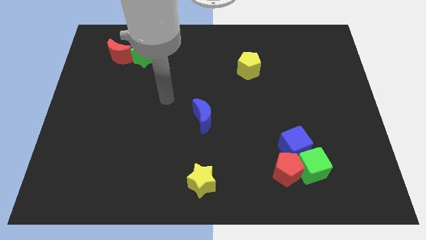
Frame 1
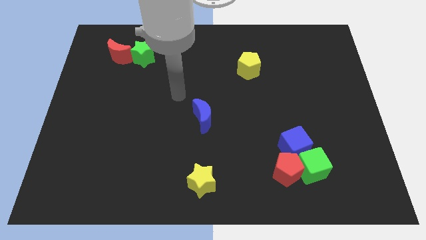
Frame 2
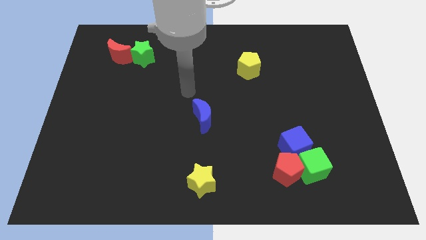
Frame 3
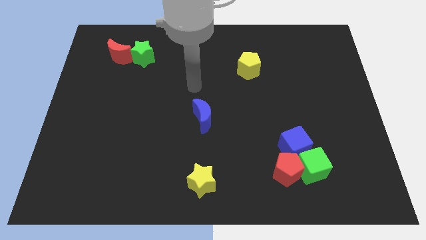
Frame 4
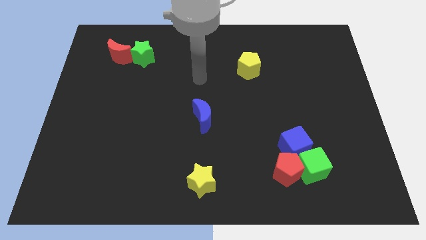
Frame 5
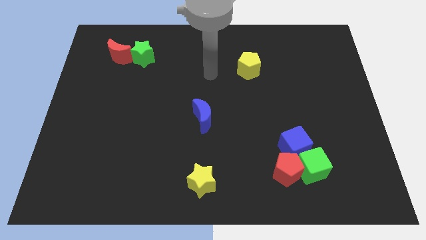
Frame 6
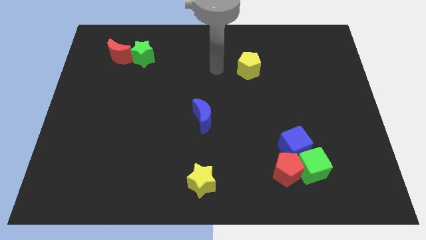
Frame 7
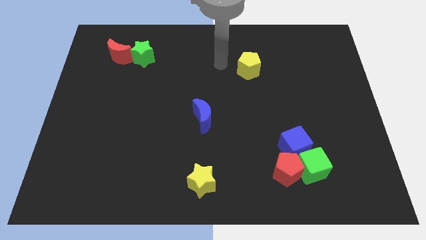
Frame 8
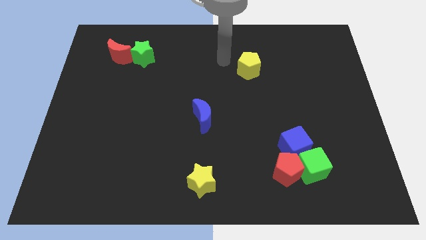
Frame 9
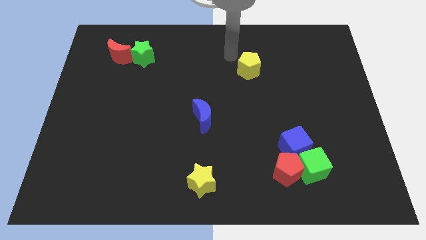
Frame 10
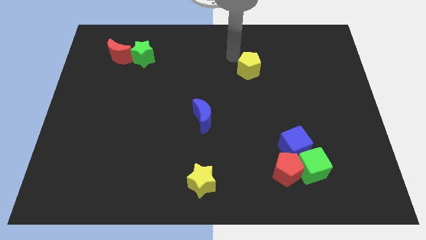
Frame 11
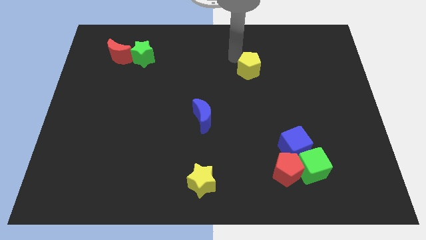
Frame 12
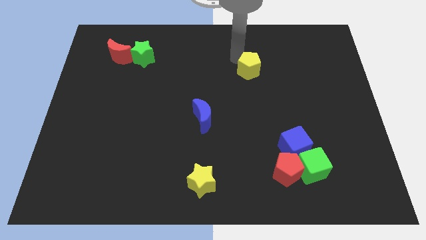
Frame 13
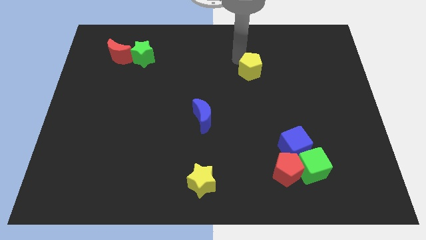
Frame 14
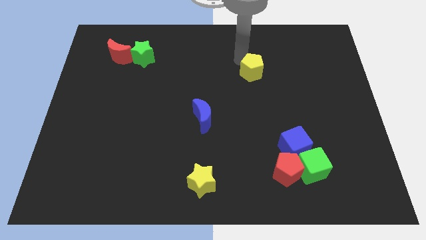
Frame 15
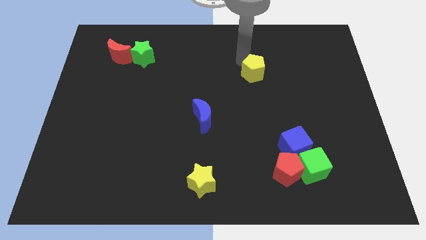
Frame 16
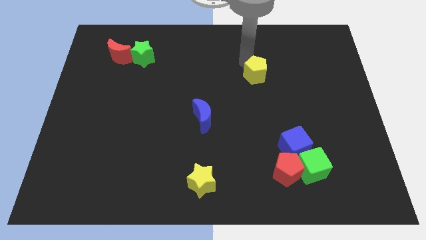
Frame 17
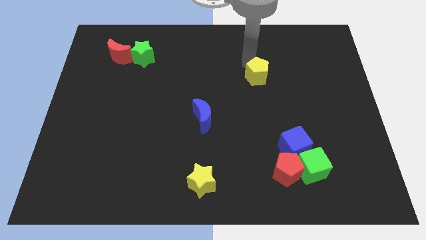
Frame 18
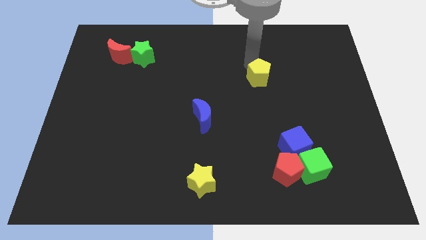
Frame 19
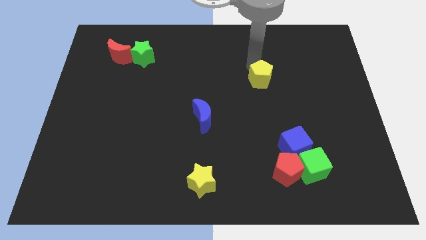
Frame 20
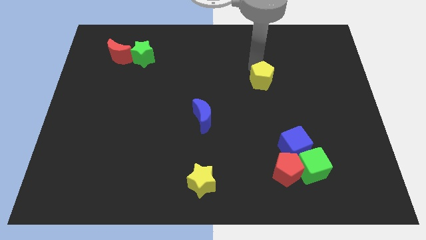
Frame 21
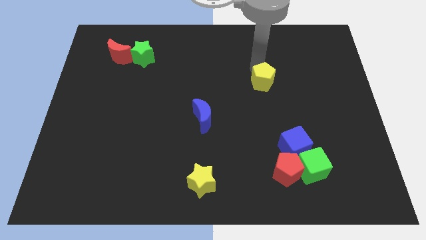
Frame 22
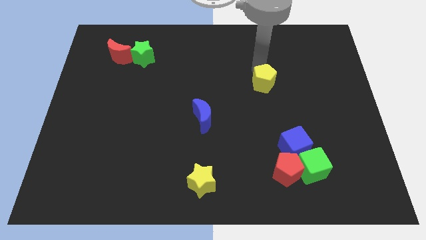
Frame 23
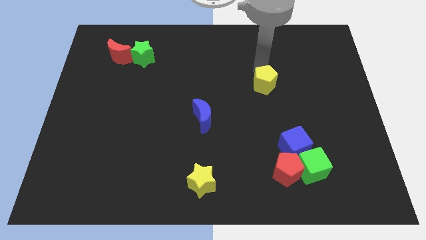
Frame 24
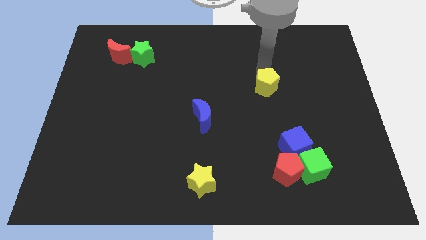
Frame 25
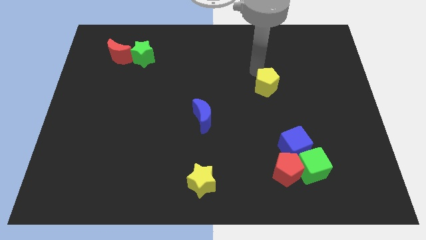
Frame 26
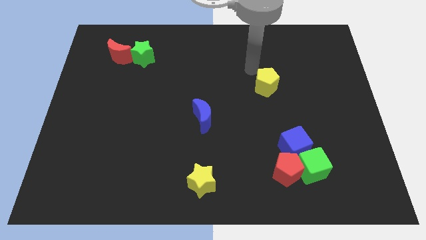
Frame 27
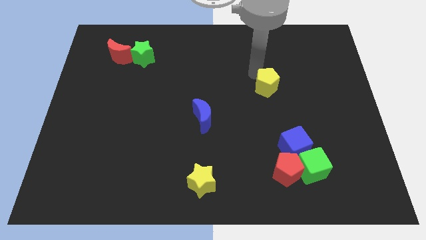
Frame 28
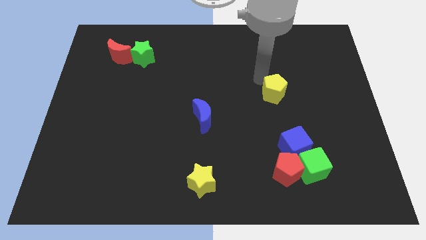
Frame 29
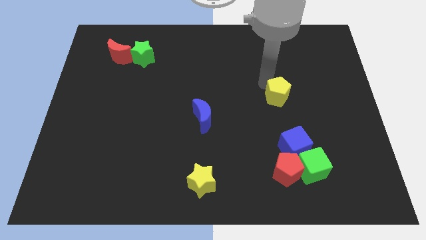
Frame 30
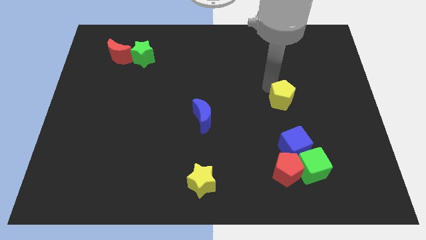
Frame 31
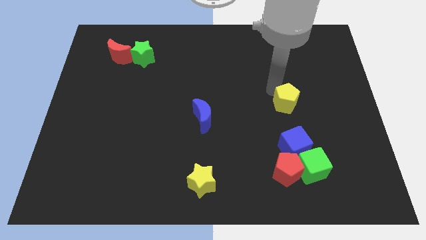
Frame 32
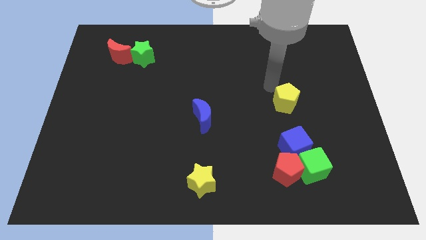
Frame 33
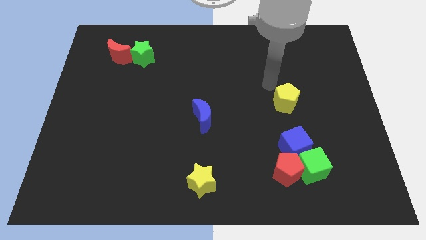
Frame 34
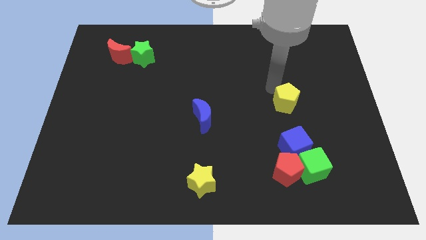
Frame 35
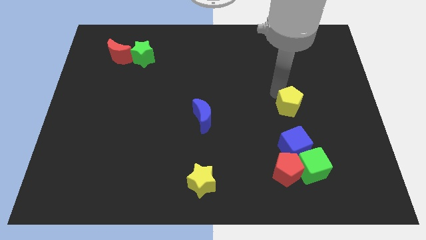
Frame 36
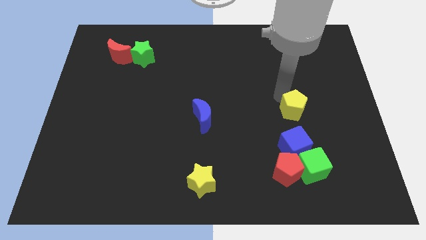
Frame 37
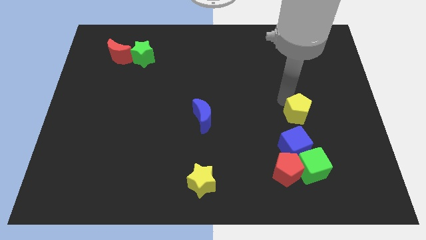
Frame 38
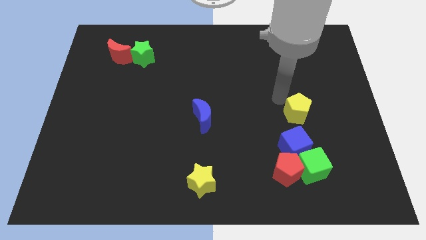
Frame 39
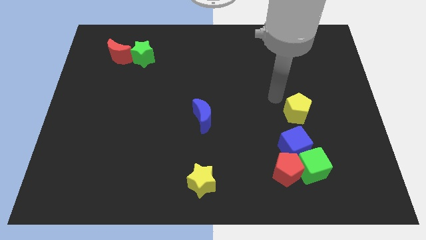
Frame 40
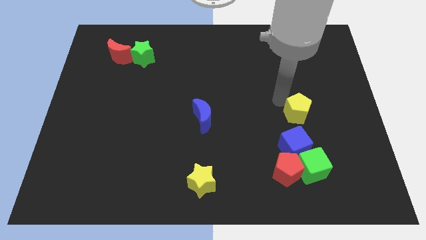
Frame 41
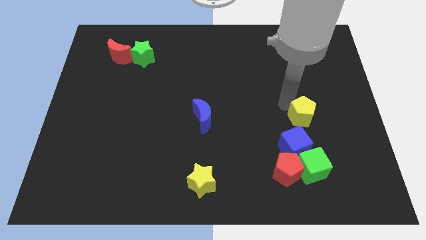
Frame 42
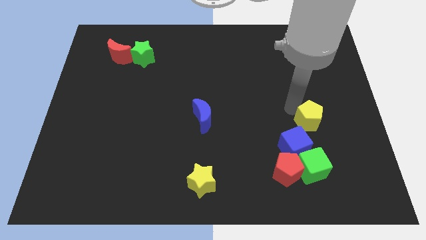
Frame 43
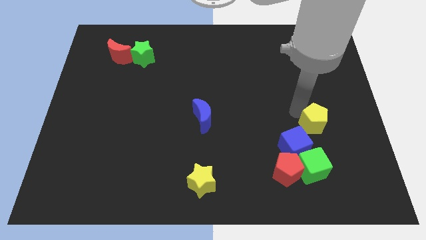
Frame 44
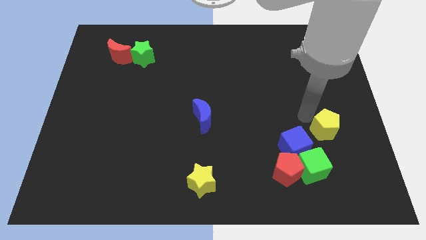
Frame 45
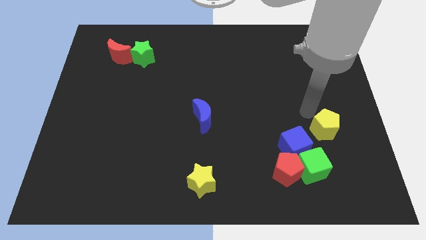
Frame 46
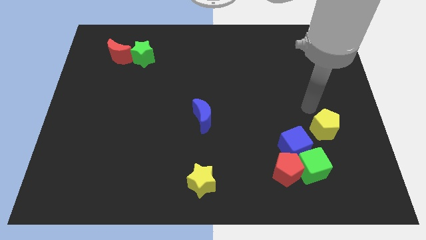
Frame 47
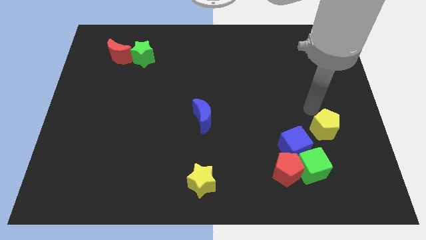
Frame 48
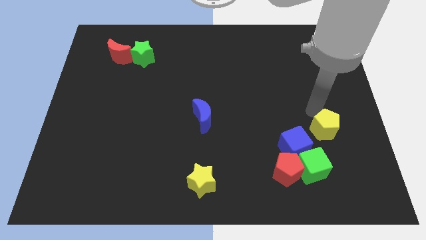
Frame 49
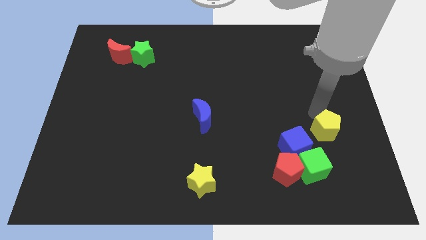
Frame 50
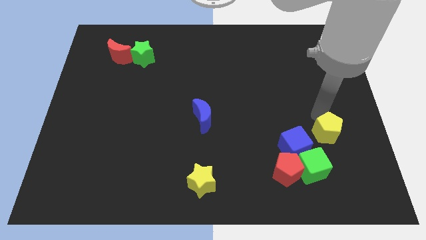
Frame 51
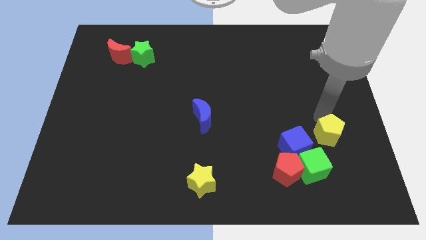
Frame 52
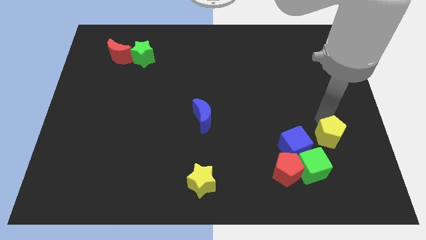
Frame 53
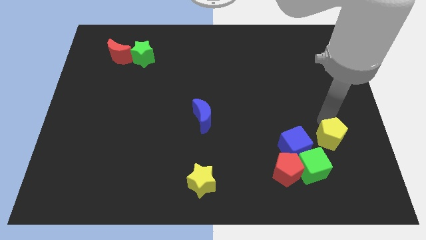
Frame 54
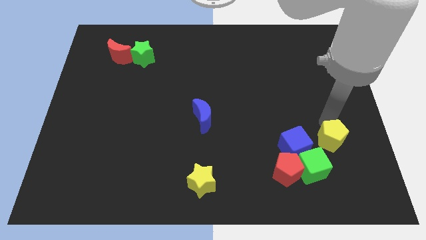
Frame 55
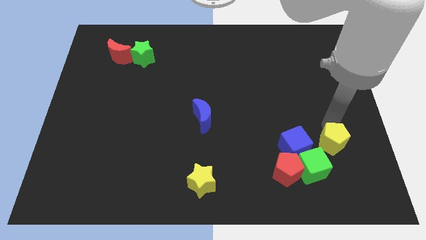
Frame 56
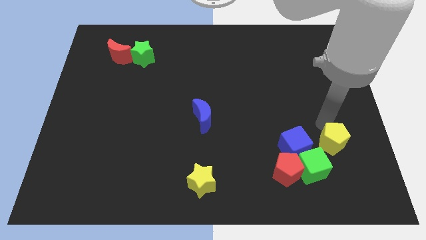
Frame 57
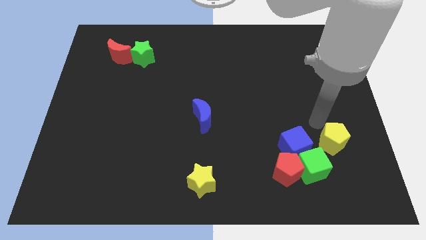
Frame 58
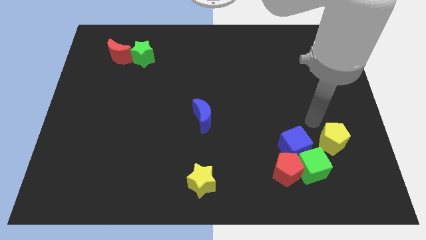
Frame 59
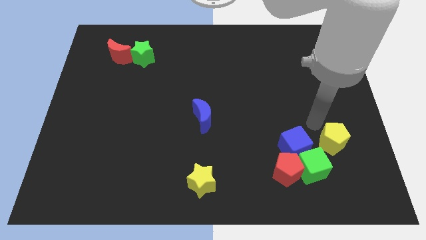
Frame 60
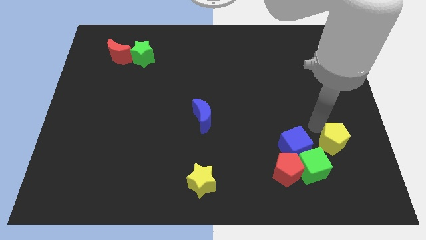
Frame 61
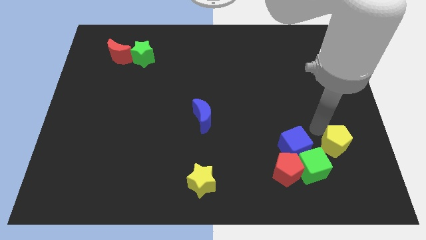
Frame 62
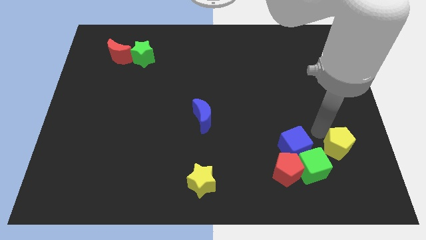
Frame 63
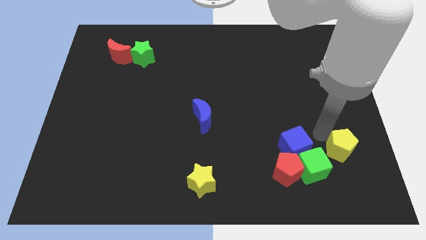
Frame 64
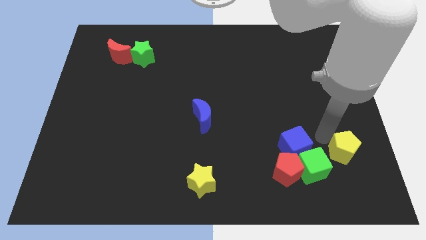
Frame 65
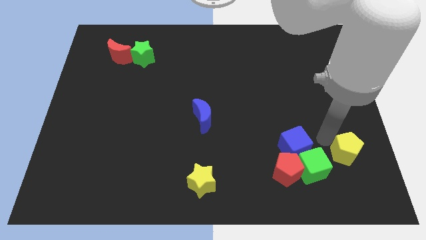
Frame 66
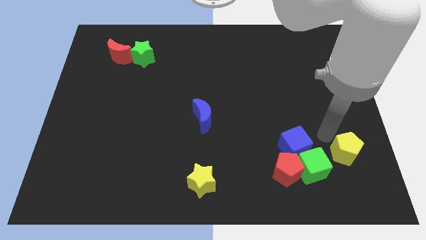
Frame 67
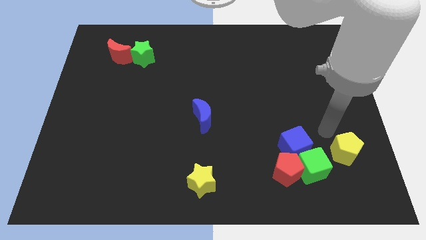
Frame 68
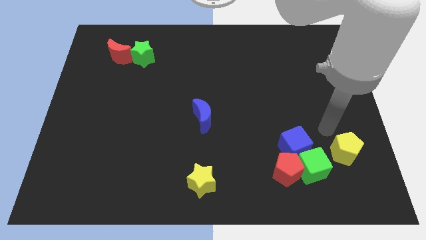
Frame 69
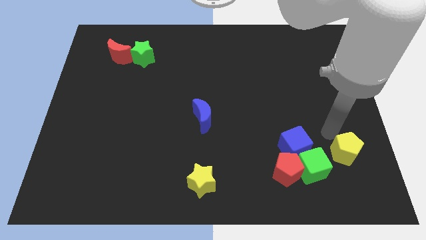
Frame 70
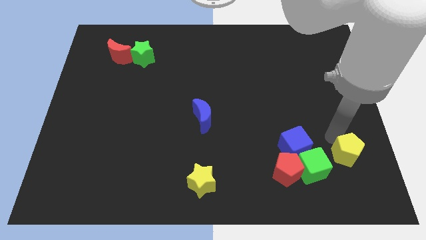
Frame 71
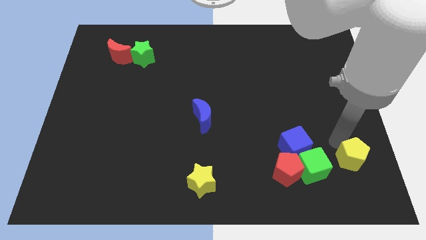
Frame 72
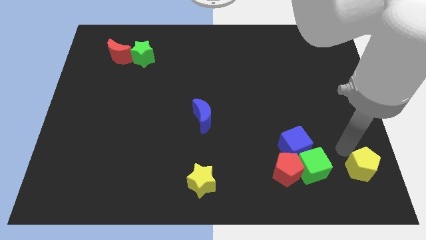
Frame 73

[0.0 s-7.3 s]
push the yellow pentagon to the bottom right corner
